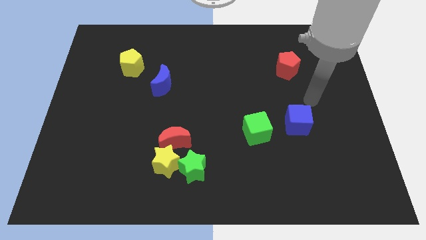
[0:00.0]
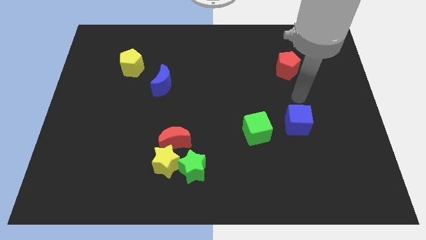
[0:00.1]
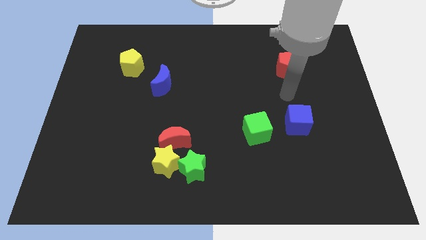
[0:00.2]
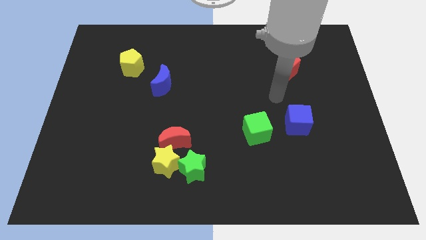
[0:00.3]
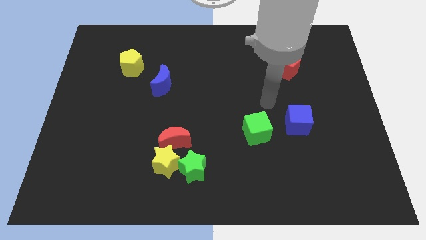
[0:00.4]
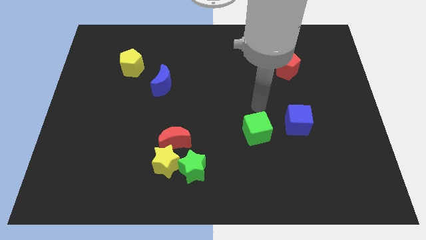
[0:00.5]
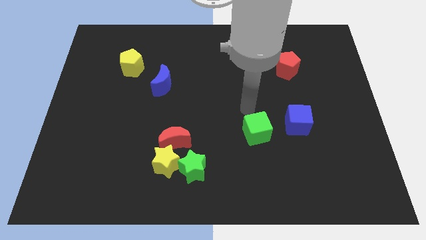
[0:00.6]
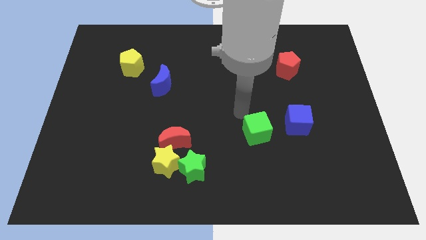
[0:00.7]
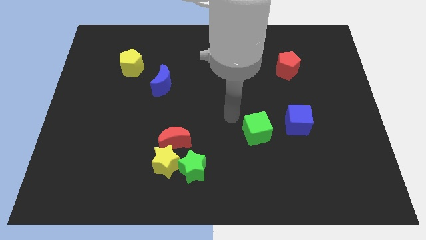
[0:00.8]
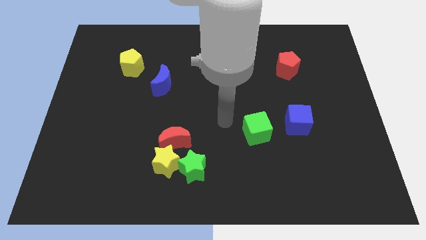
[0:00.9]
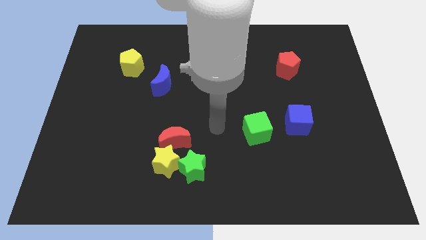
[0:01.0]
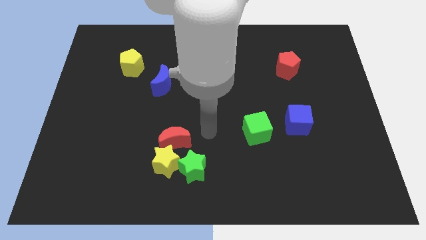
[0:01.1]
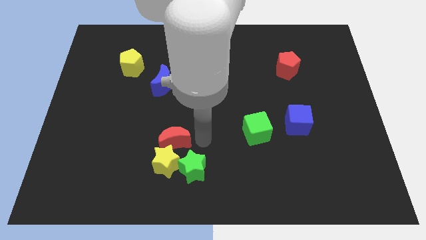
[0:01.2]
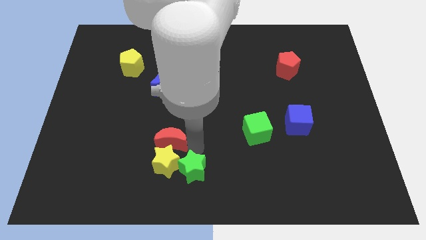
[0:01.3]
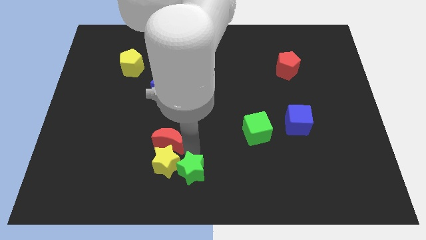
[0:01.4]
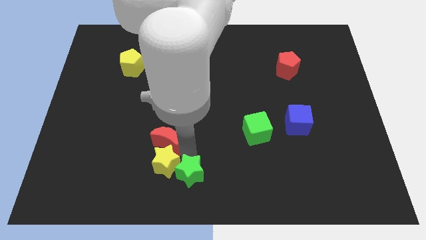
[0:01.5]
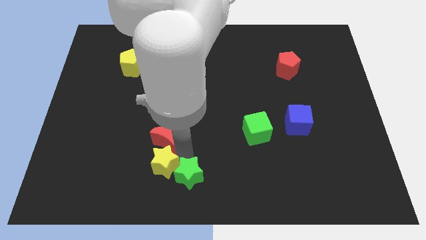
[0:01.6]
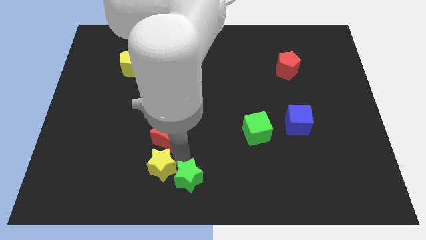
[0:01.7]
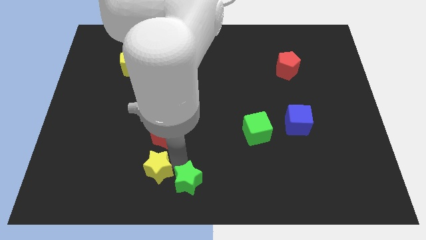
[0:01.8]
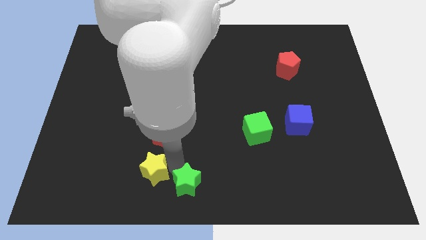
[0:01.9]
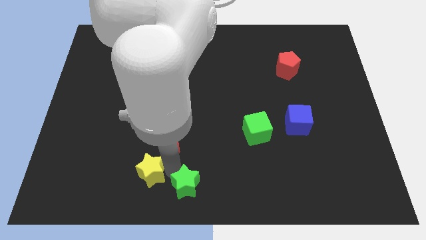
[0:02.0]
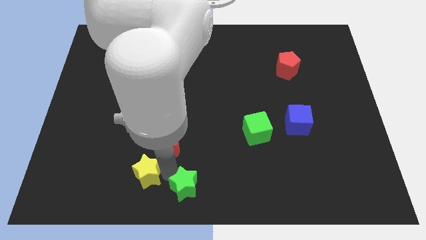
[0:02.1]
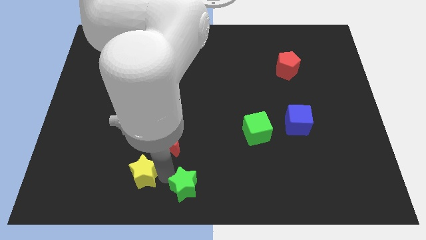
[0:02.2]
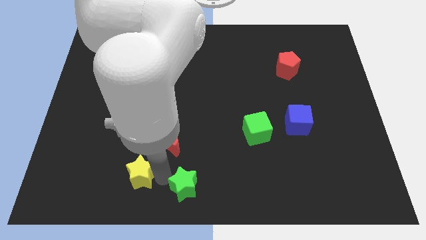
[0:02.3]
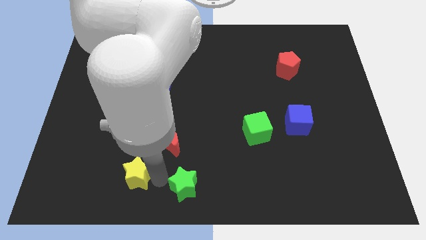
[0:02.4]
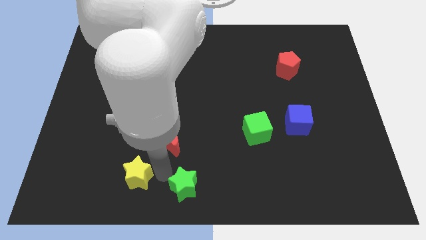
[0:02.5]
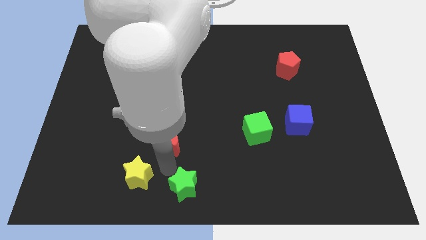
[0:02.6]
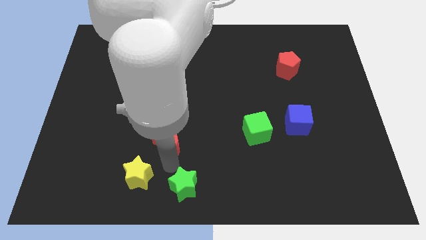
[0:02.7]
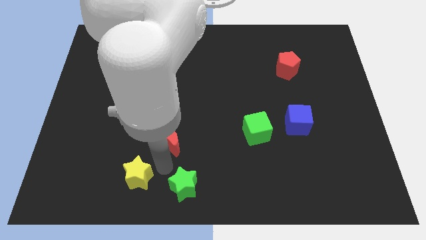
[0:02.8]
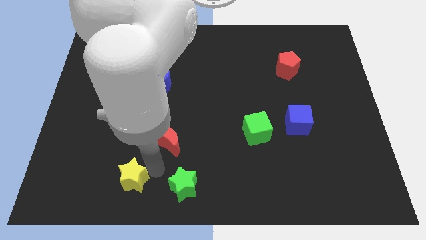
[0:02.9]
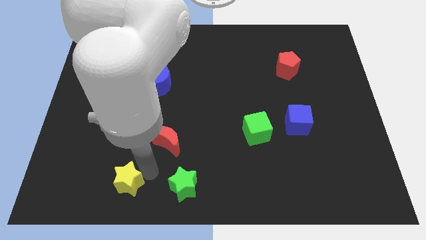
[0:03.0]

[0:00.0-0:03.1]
pull the yellow star apart from the red moon and green star

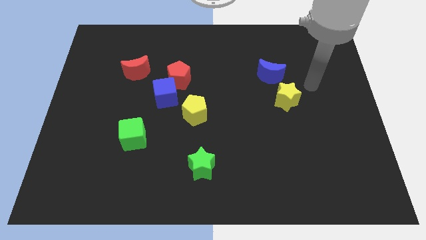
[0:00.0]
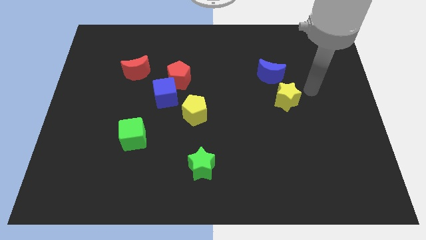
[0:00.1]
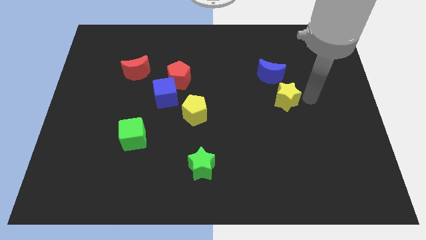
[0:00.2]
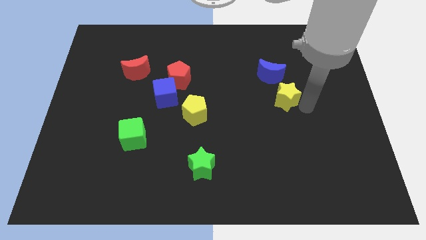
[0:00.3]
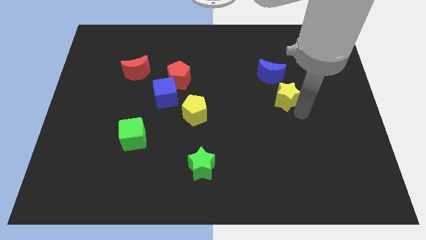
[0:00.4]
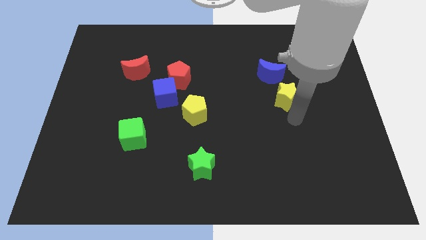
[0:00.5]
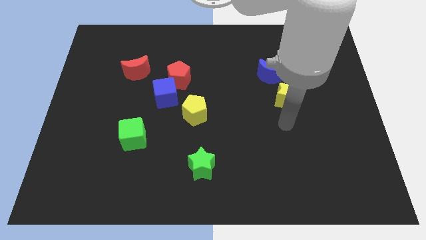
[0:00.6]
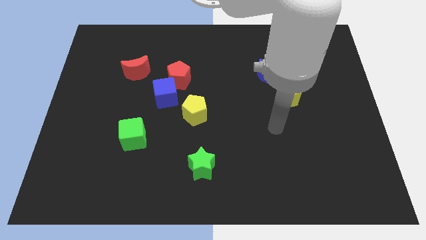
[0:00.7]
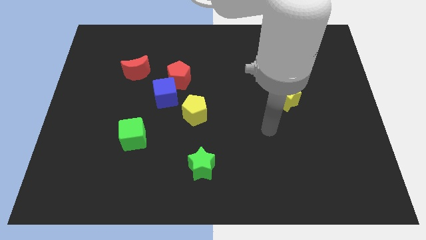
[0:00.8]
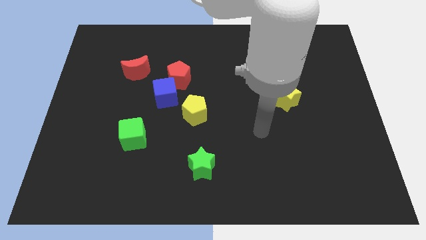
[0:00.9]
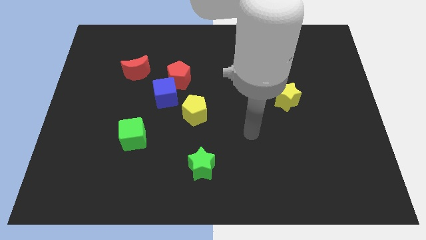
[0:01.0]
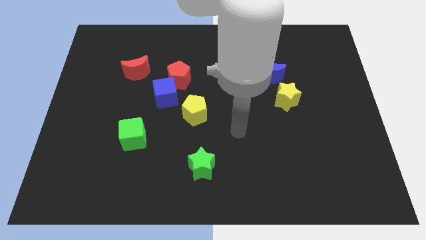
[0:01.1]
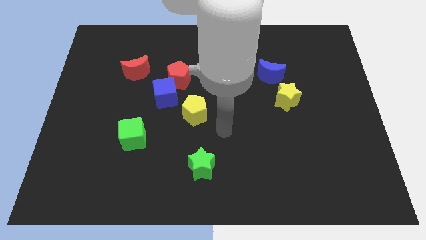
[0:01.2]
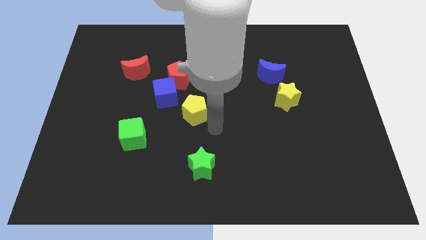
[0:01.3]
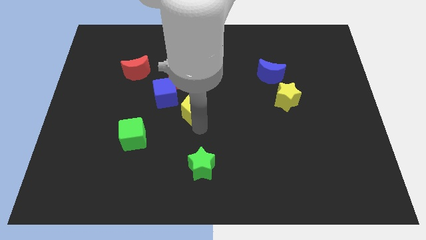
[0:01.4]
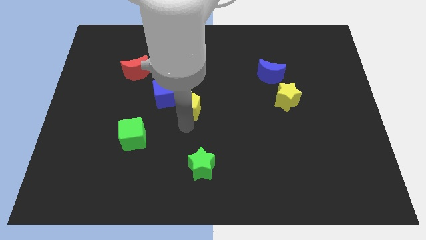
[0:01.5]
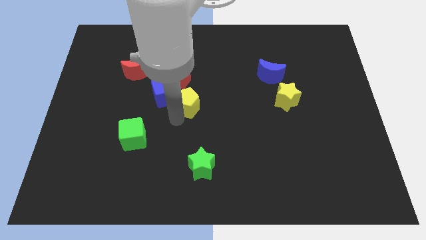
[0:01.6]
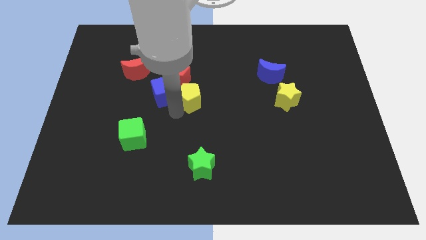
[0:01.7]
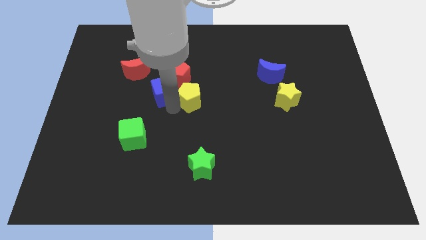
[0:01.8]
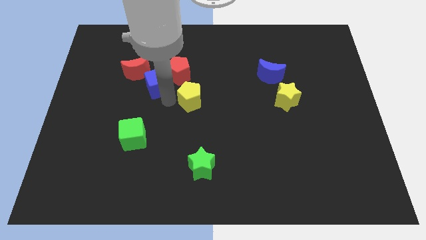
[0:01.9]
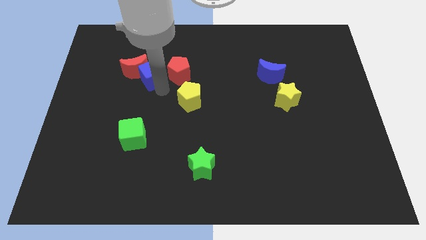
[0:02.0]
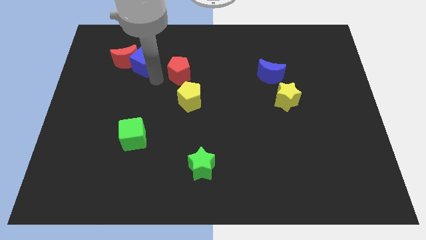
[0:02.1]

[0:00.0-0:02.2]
move the red pentagon away from the blue cube

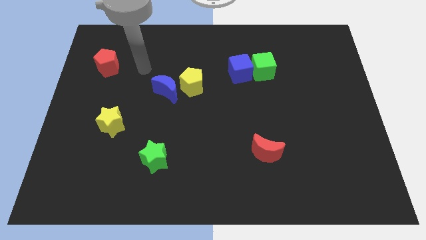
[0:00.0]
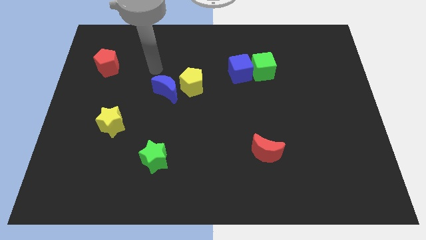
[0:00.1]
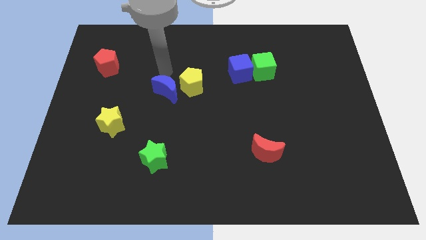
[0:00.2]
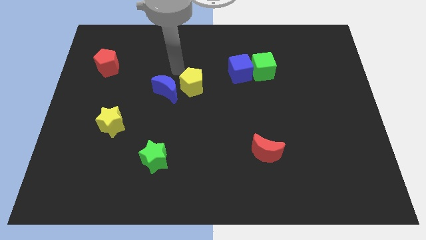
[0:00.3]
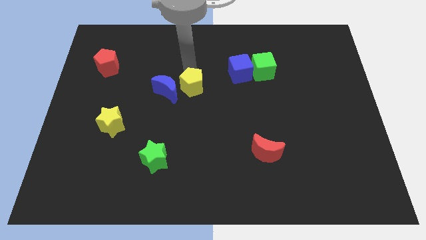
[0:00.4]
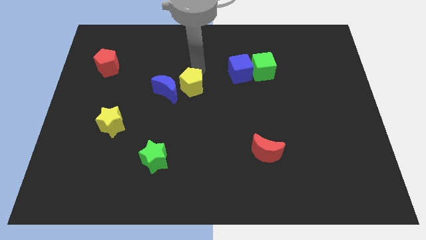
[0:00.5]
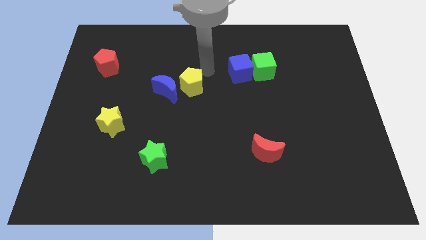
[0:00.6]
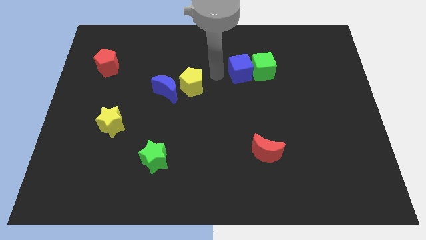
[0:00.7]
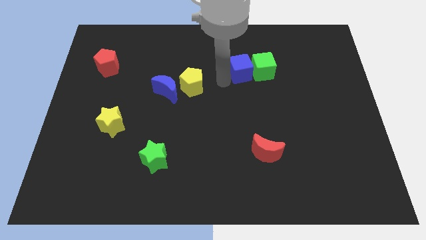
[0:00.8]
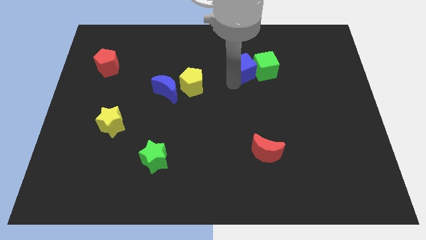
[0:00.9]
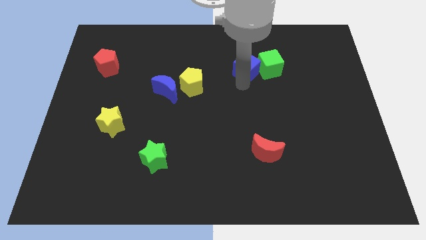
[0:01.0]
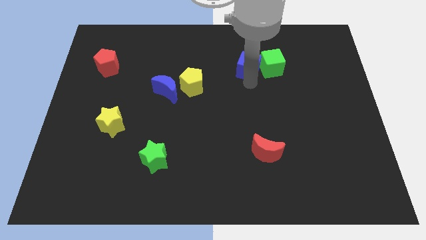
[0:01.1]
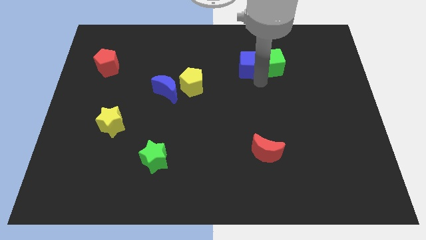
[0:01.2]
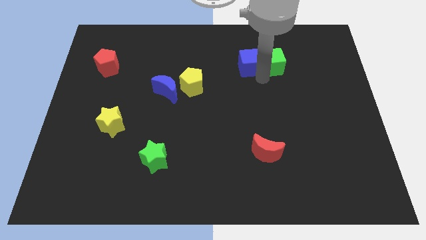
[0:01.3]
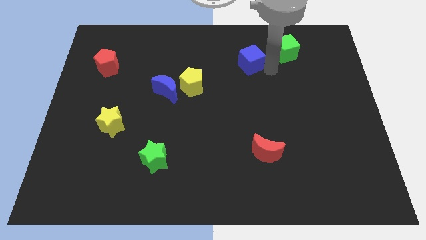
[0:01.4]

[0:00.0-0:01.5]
pull the blue cube apart from the green cube

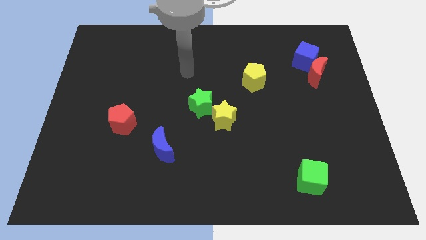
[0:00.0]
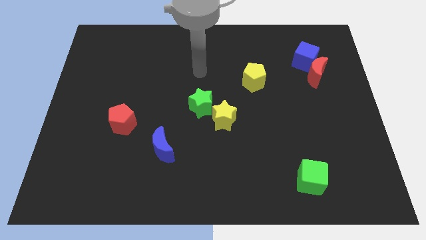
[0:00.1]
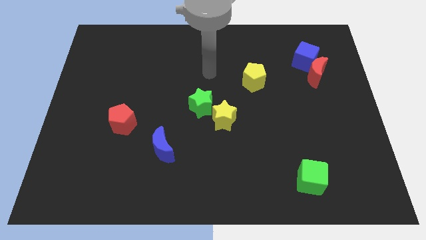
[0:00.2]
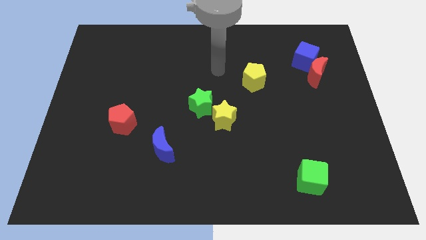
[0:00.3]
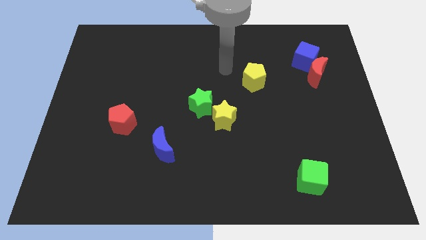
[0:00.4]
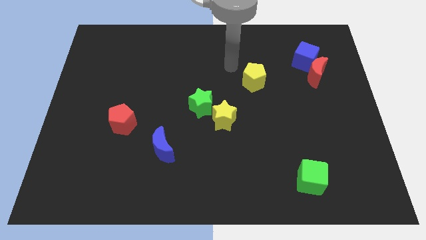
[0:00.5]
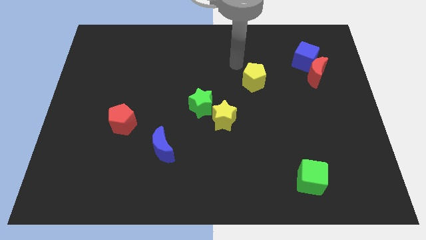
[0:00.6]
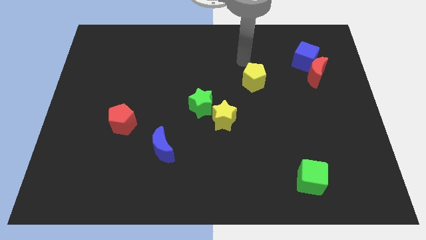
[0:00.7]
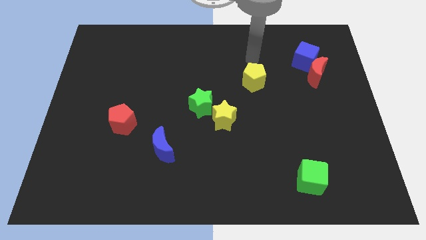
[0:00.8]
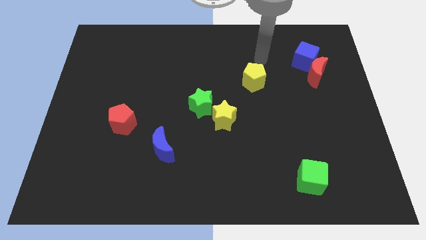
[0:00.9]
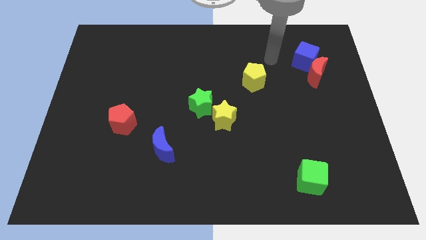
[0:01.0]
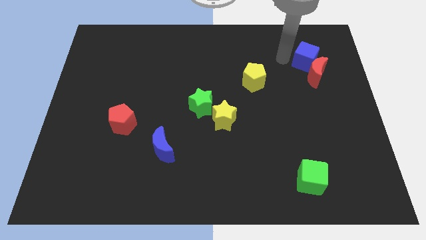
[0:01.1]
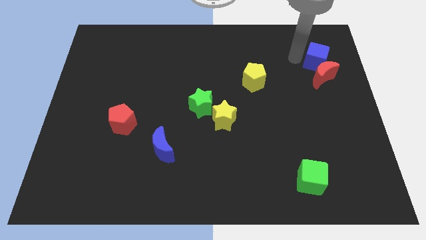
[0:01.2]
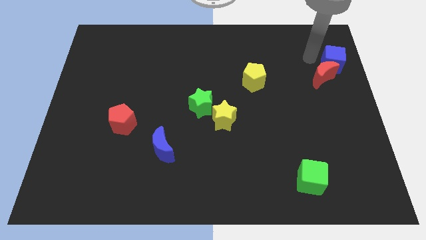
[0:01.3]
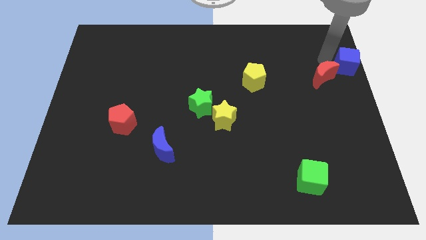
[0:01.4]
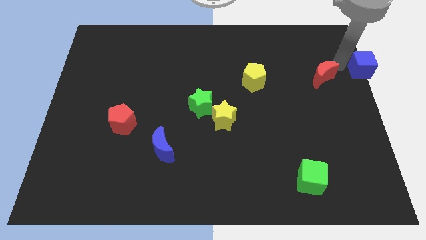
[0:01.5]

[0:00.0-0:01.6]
pull the red moon apart from the blue cube

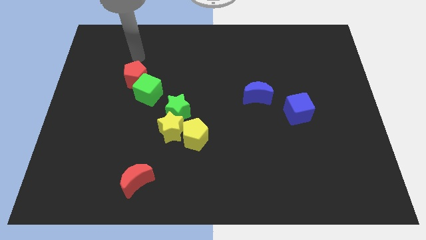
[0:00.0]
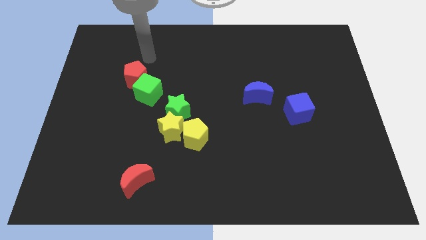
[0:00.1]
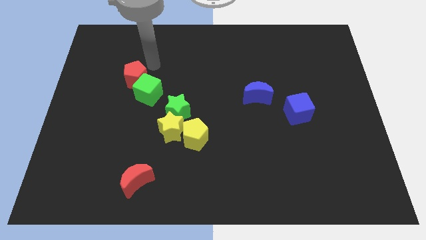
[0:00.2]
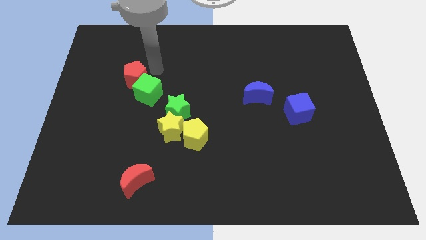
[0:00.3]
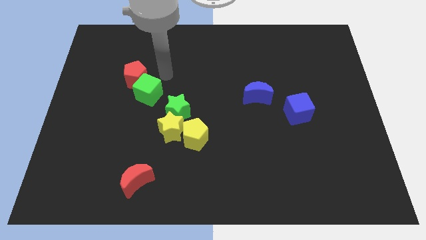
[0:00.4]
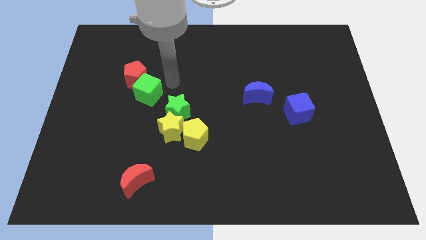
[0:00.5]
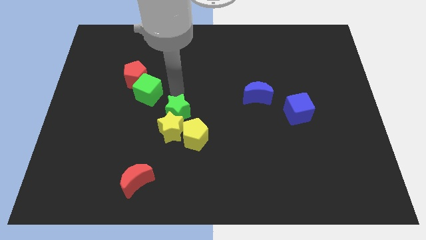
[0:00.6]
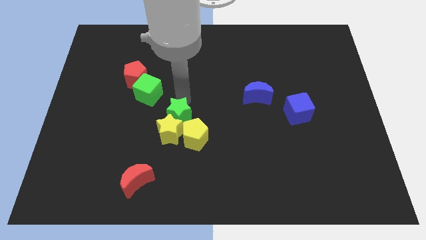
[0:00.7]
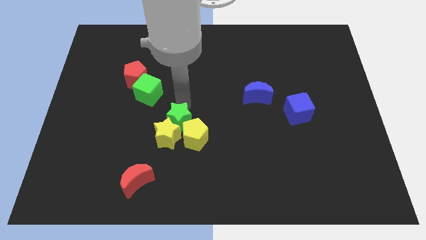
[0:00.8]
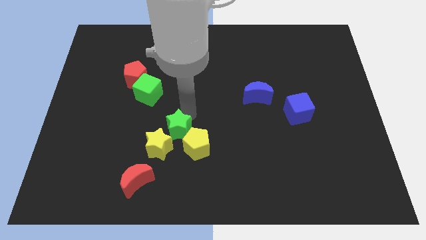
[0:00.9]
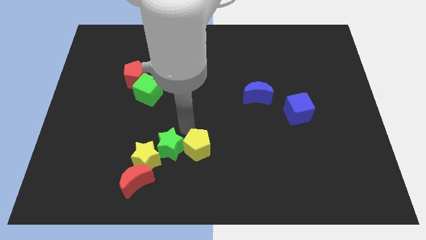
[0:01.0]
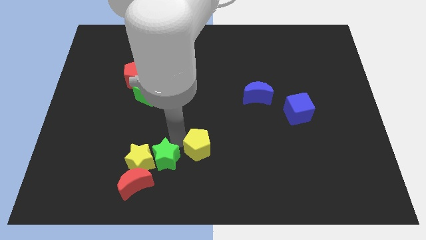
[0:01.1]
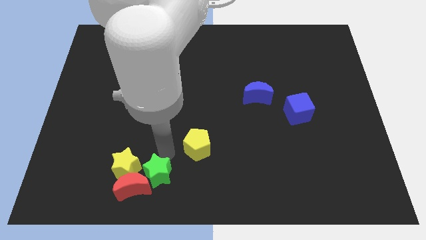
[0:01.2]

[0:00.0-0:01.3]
pull the yellow star apart from the green star and yellow pentagon
